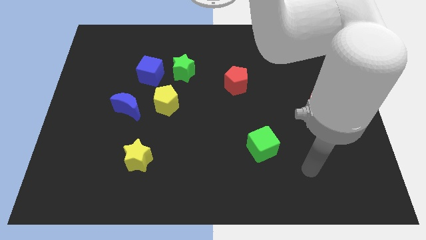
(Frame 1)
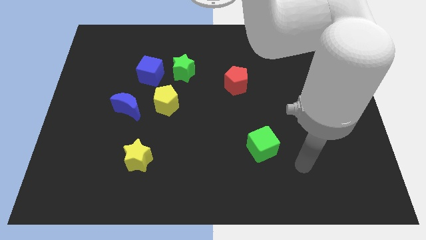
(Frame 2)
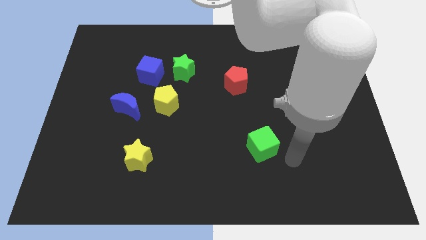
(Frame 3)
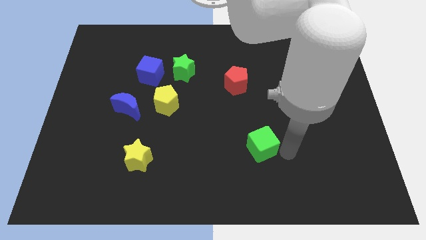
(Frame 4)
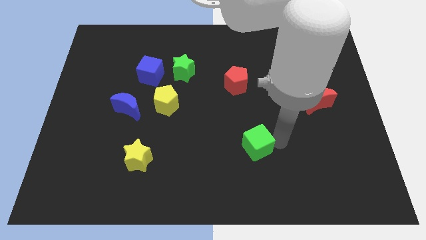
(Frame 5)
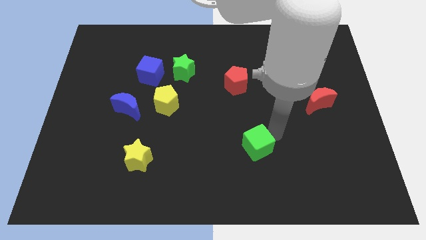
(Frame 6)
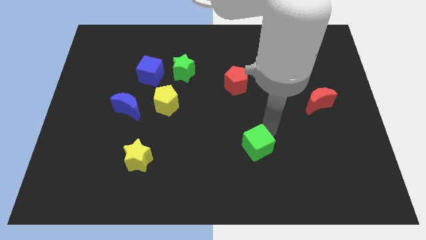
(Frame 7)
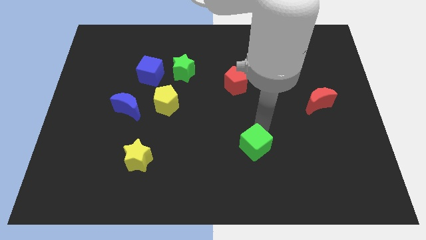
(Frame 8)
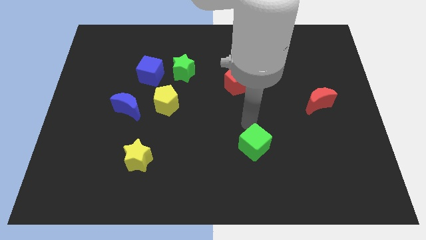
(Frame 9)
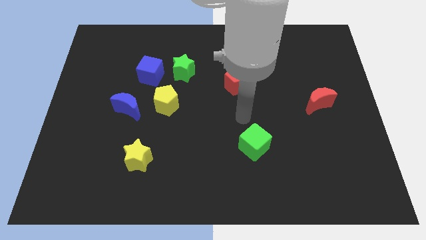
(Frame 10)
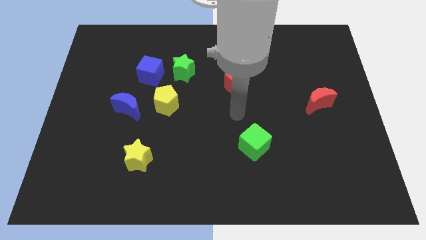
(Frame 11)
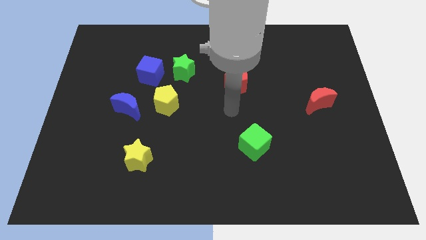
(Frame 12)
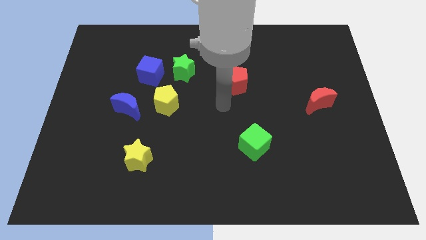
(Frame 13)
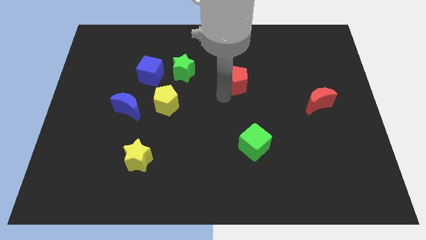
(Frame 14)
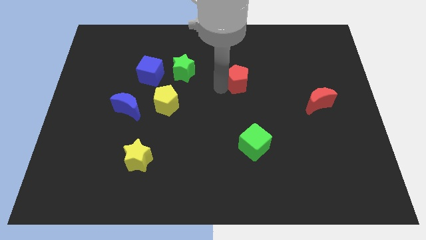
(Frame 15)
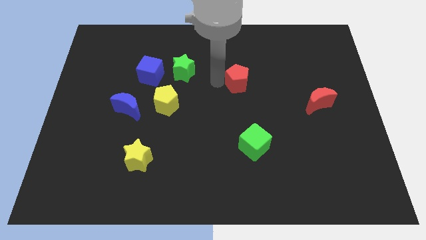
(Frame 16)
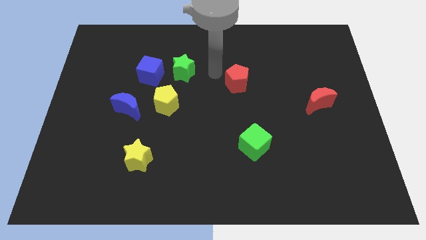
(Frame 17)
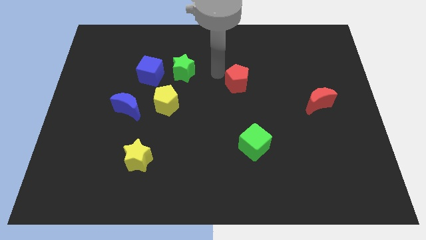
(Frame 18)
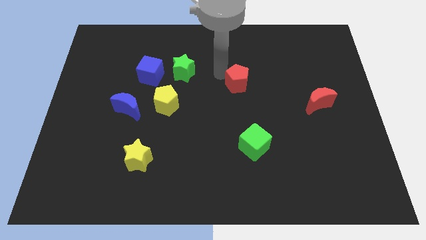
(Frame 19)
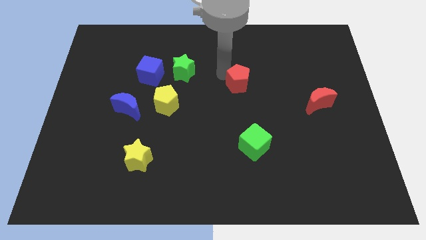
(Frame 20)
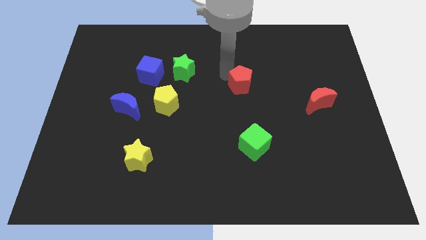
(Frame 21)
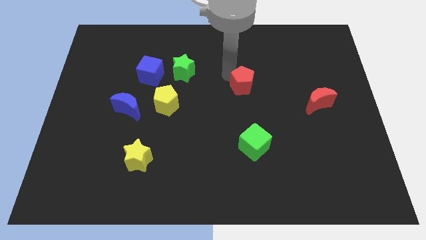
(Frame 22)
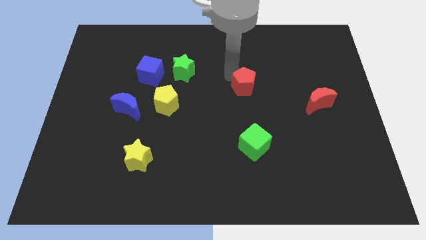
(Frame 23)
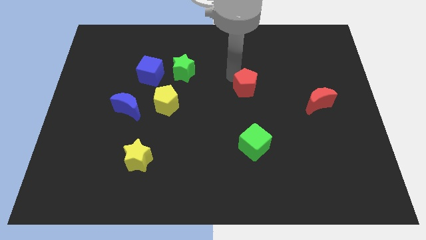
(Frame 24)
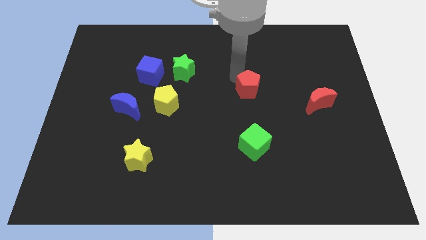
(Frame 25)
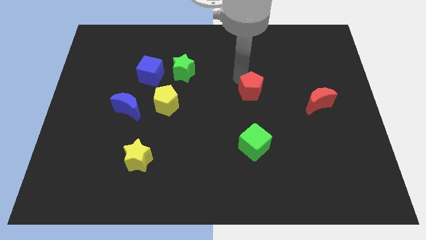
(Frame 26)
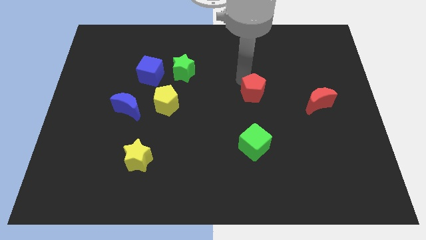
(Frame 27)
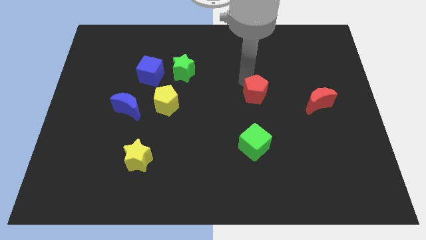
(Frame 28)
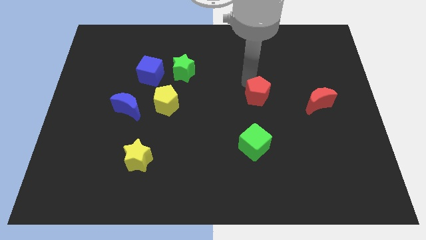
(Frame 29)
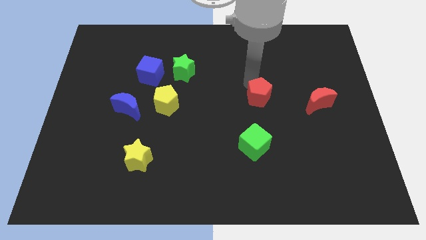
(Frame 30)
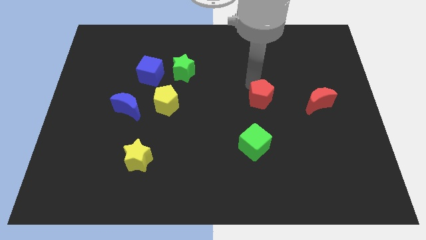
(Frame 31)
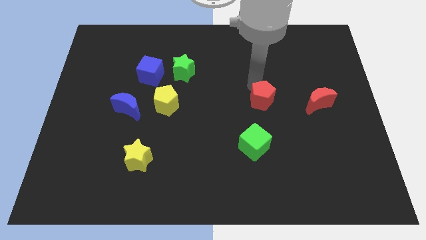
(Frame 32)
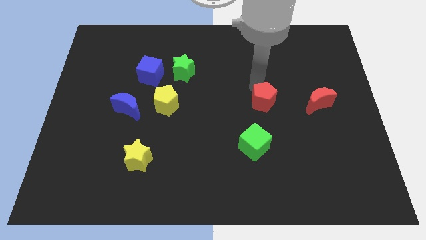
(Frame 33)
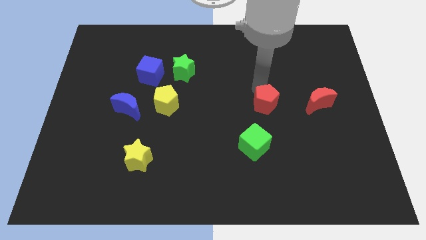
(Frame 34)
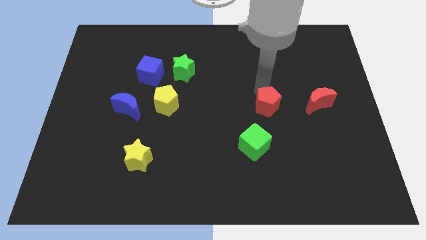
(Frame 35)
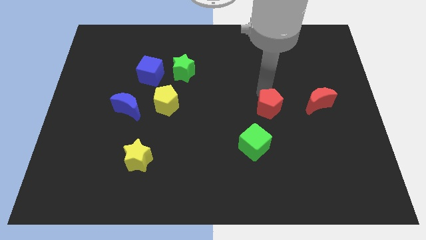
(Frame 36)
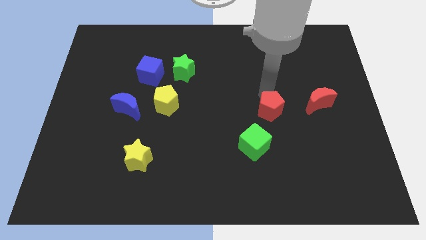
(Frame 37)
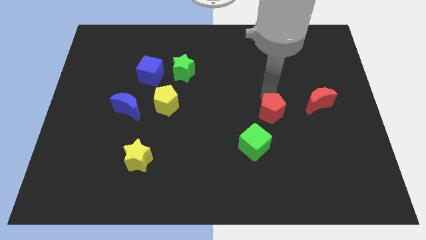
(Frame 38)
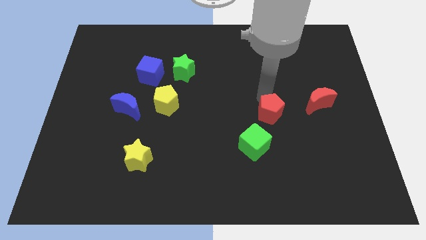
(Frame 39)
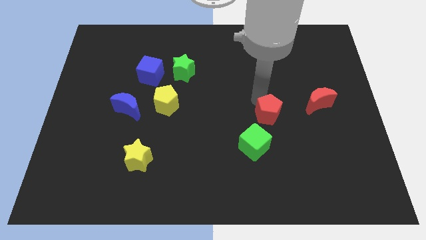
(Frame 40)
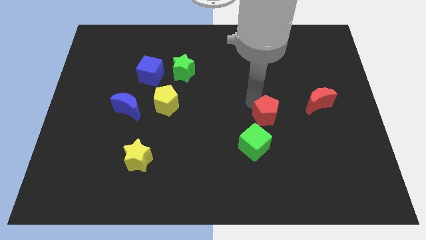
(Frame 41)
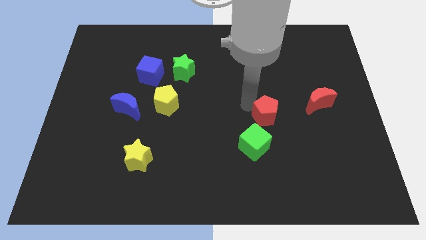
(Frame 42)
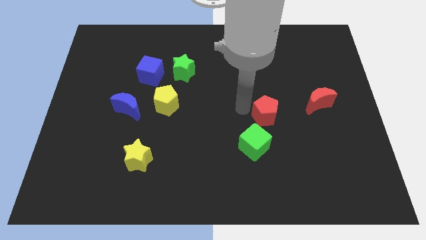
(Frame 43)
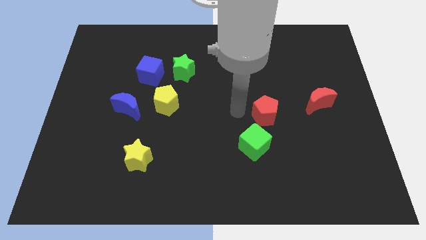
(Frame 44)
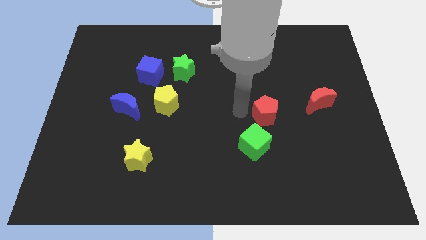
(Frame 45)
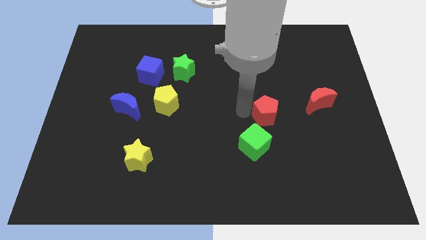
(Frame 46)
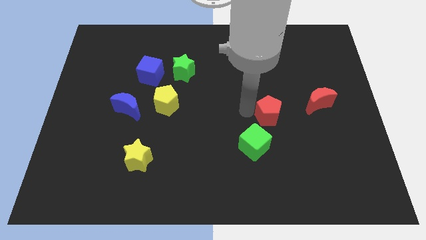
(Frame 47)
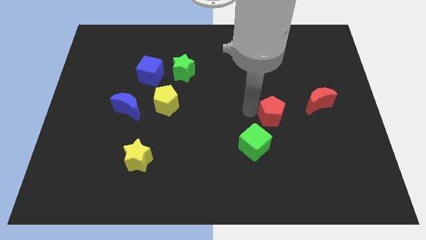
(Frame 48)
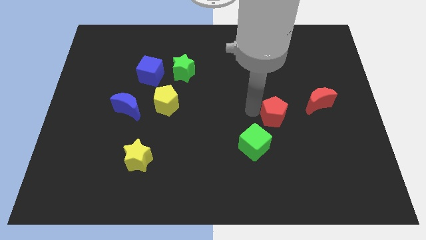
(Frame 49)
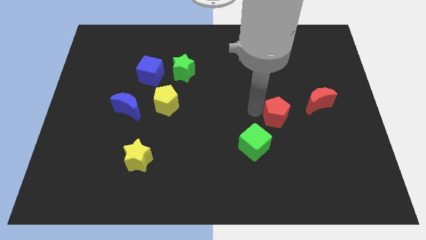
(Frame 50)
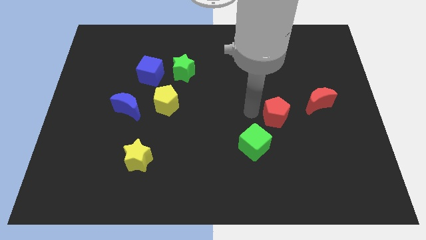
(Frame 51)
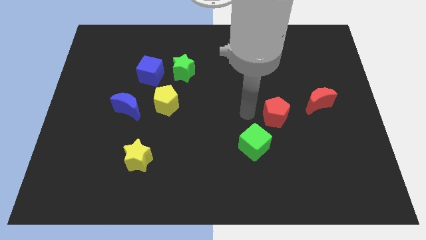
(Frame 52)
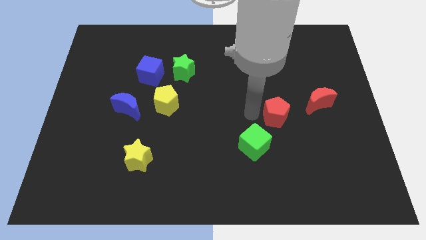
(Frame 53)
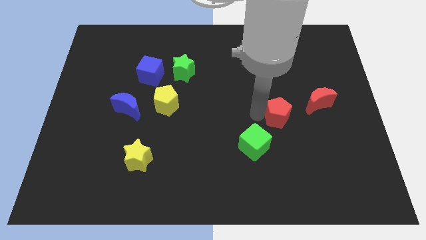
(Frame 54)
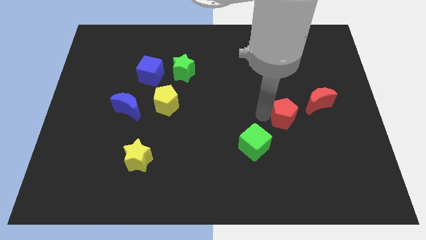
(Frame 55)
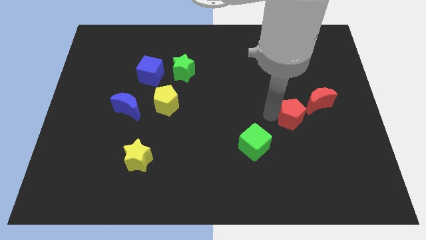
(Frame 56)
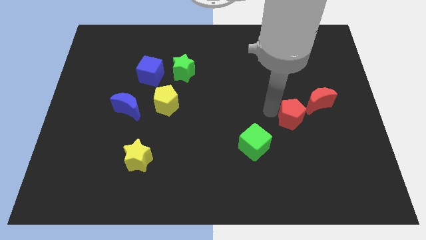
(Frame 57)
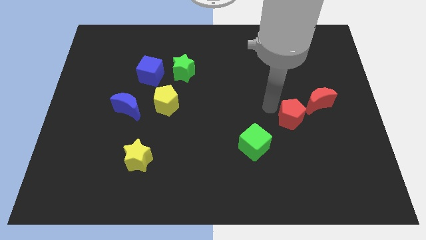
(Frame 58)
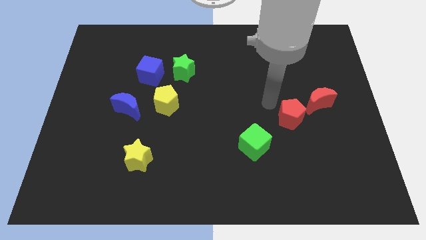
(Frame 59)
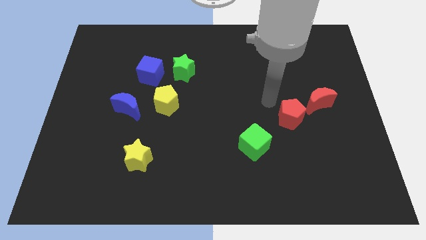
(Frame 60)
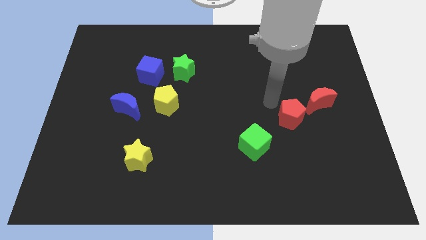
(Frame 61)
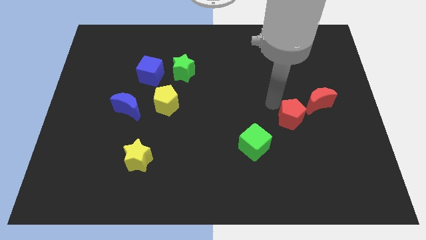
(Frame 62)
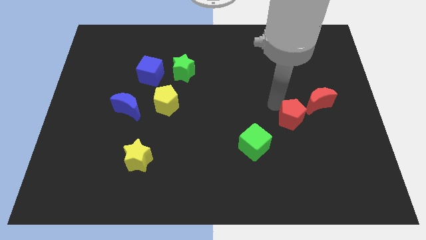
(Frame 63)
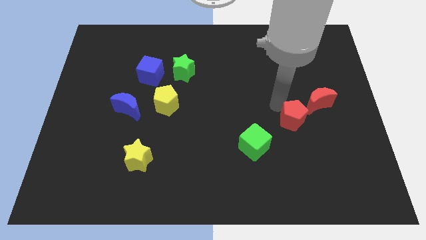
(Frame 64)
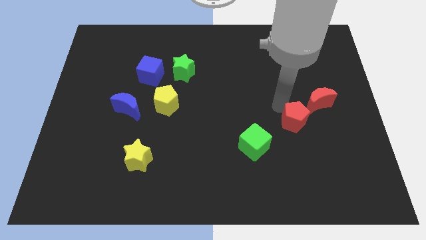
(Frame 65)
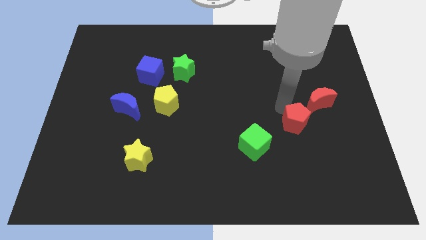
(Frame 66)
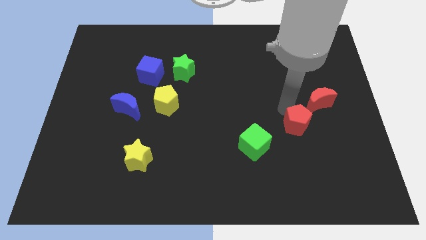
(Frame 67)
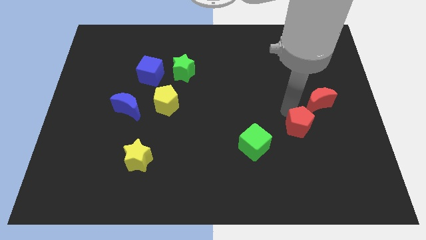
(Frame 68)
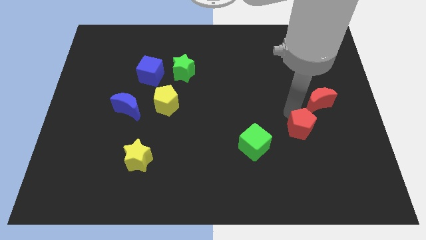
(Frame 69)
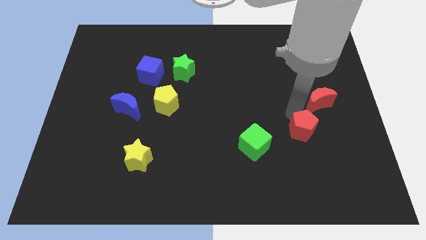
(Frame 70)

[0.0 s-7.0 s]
slide the red pentagon diagonally down and to the right

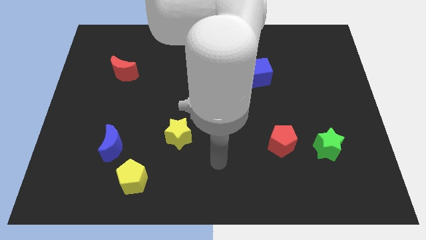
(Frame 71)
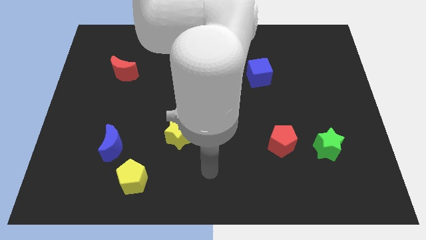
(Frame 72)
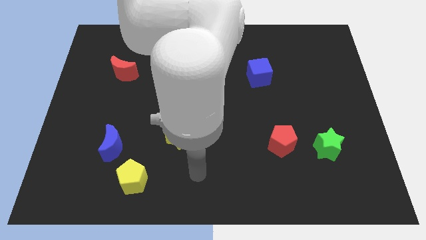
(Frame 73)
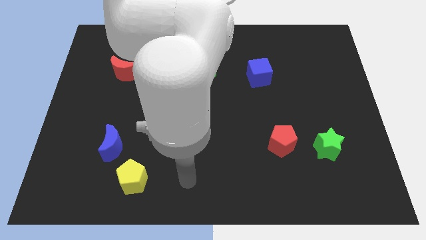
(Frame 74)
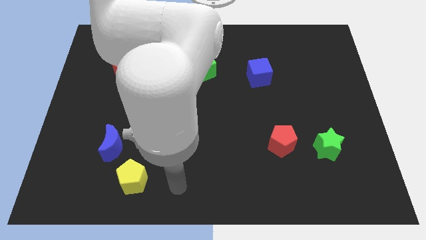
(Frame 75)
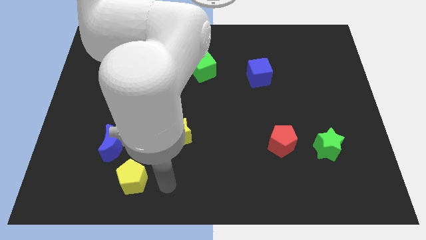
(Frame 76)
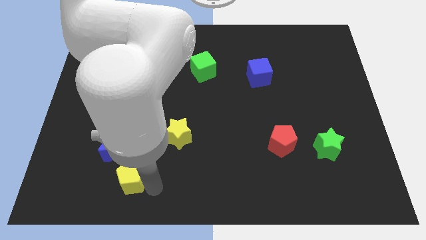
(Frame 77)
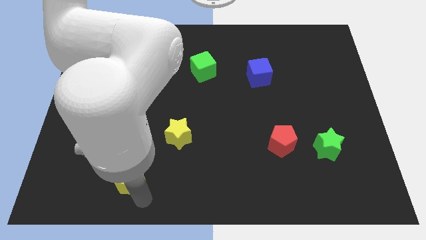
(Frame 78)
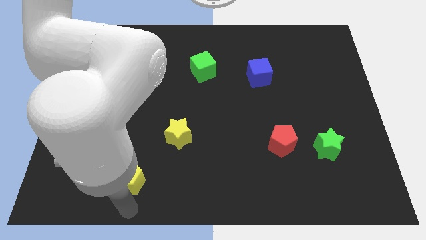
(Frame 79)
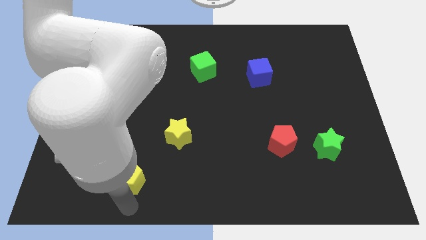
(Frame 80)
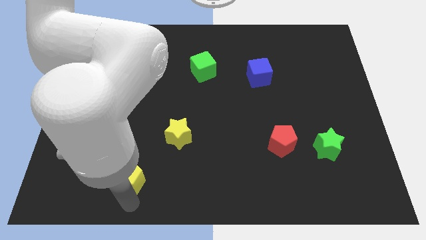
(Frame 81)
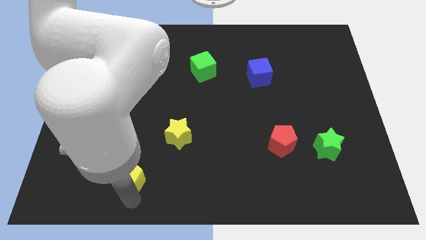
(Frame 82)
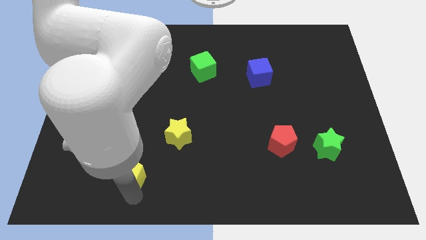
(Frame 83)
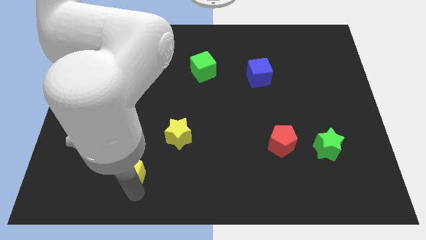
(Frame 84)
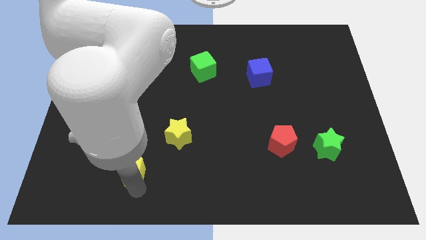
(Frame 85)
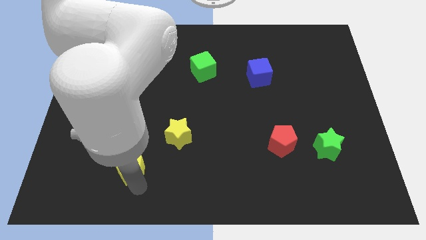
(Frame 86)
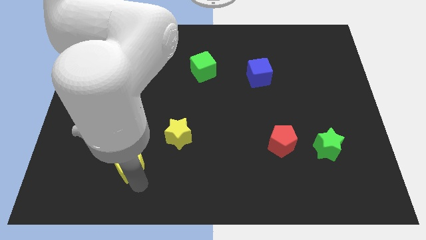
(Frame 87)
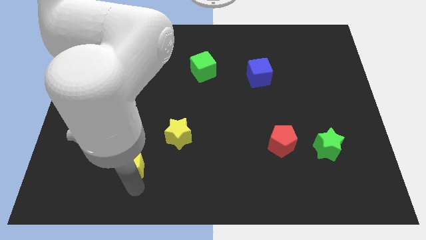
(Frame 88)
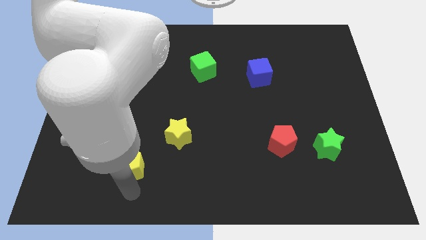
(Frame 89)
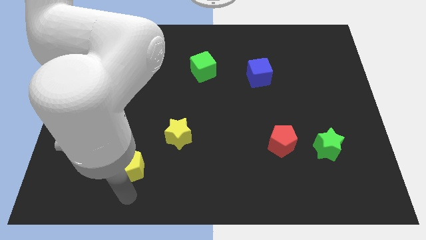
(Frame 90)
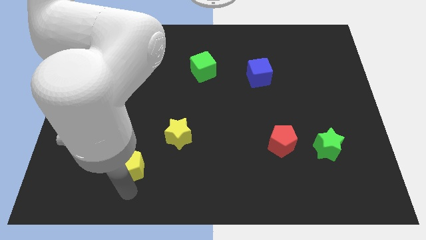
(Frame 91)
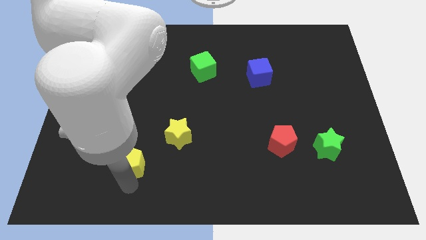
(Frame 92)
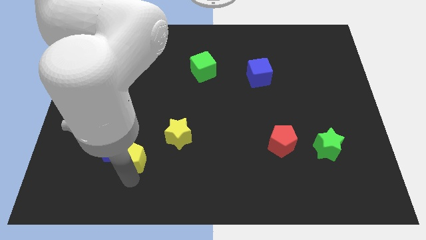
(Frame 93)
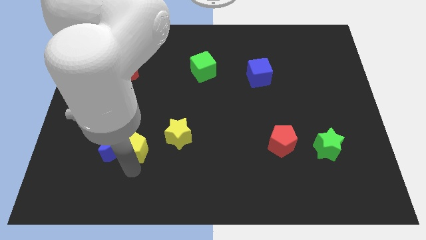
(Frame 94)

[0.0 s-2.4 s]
move the yellow pentagon a little up
